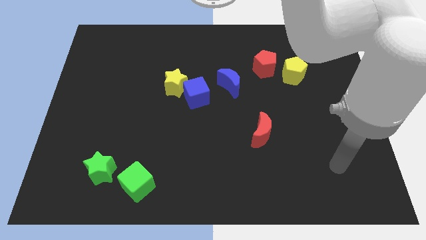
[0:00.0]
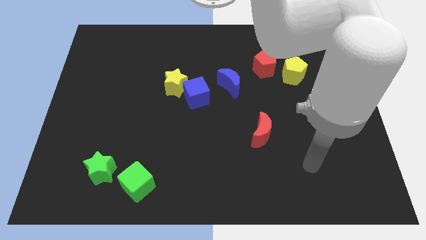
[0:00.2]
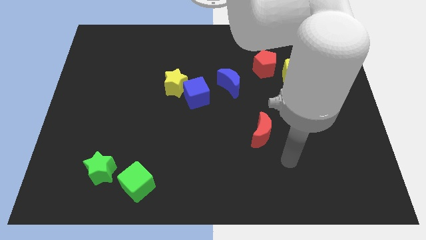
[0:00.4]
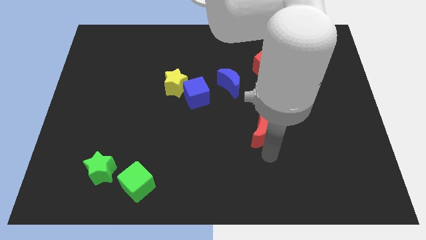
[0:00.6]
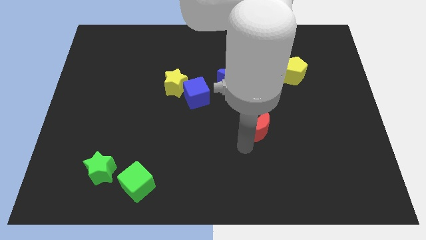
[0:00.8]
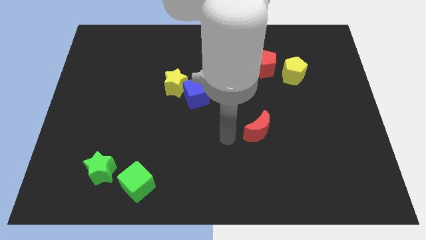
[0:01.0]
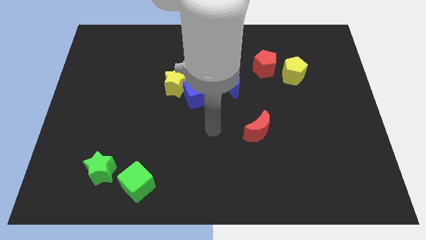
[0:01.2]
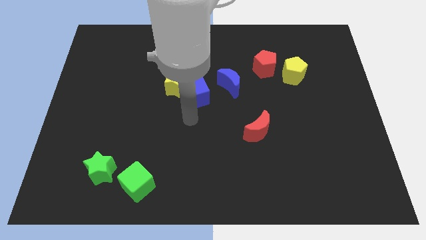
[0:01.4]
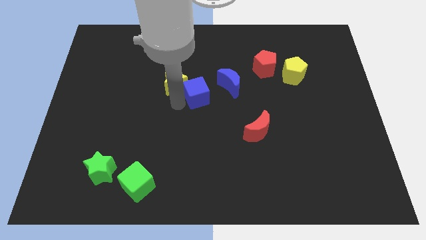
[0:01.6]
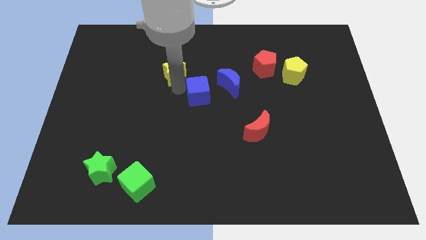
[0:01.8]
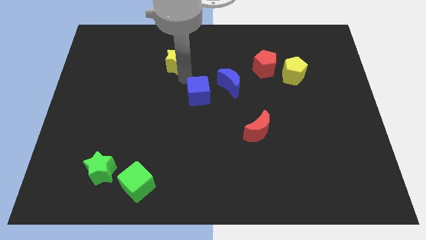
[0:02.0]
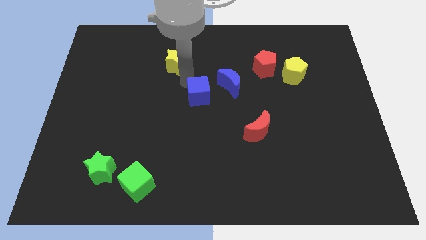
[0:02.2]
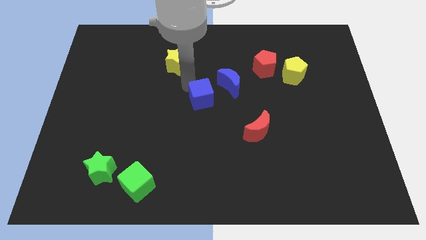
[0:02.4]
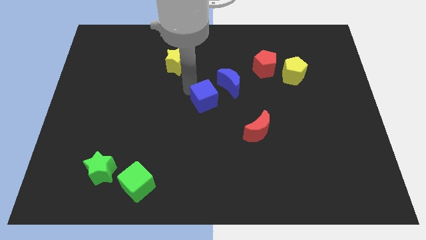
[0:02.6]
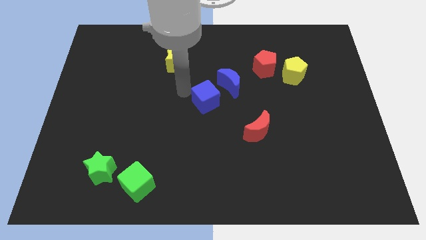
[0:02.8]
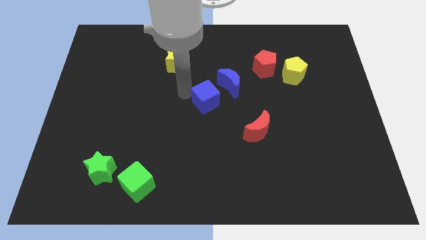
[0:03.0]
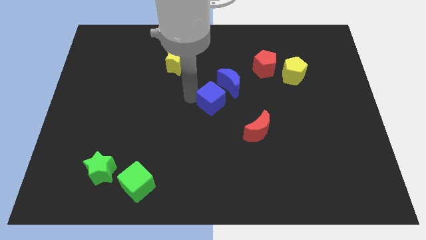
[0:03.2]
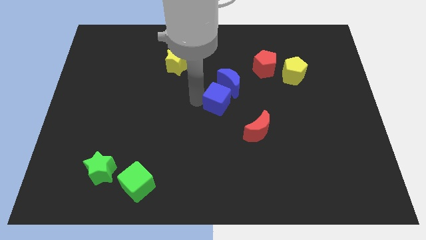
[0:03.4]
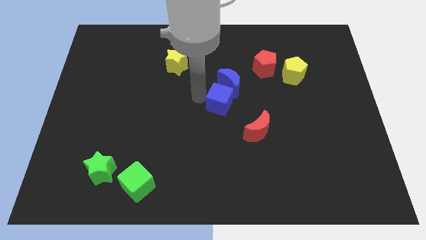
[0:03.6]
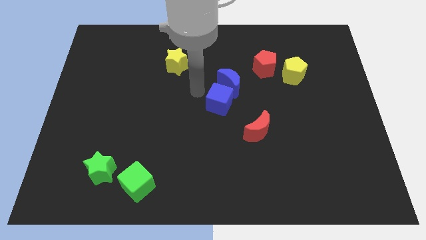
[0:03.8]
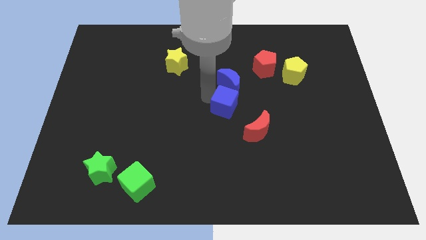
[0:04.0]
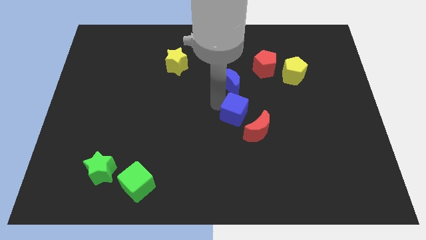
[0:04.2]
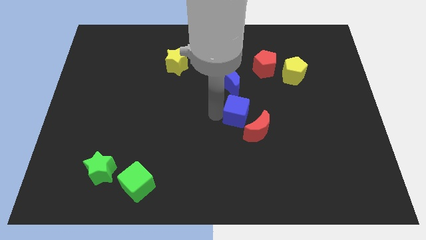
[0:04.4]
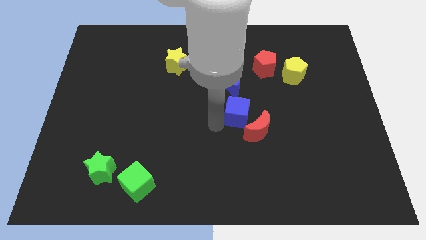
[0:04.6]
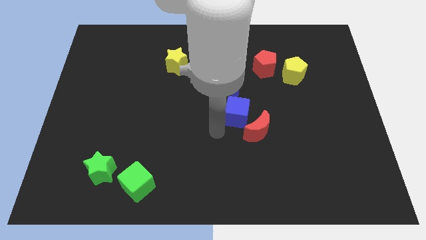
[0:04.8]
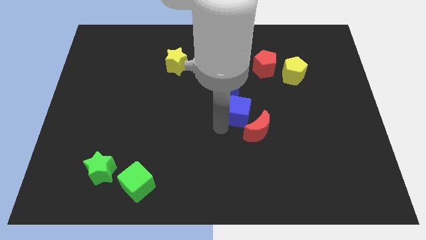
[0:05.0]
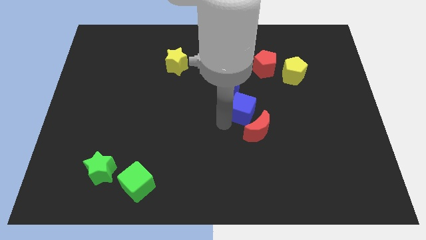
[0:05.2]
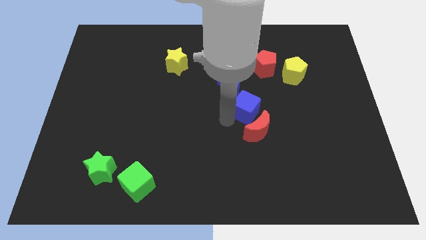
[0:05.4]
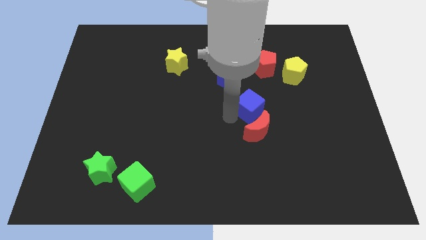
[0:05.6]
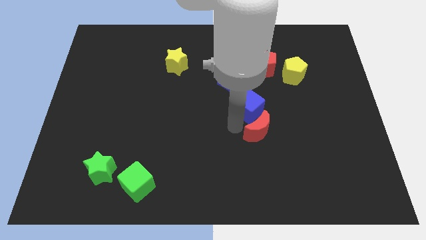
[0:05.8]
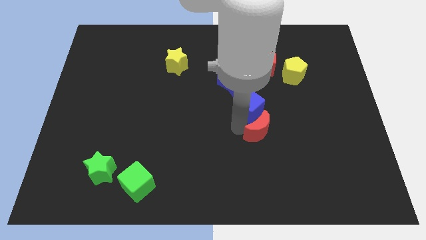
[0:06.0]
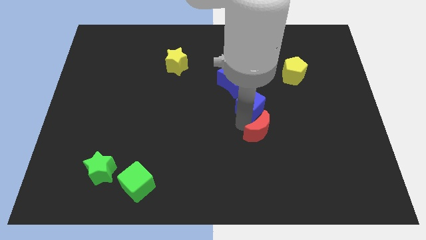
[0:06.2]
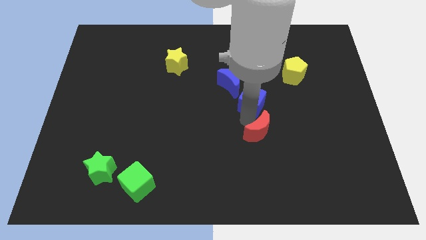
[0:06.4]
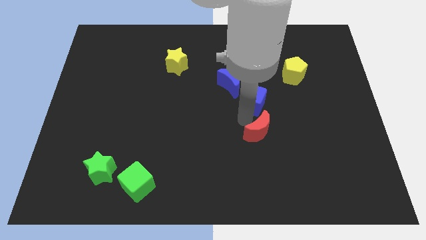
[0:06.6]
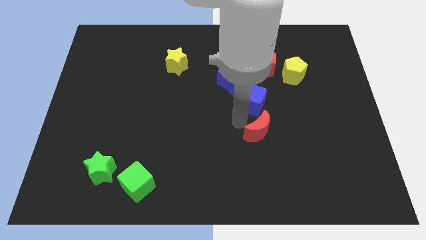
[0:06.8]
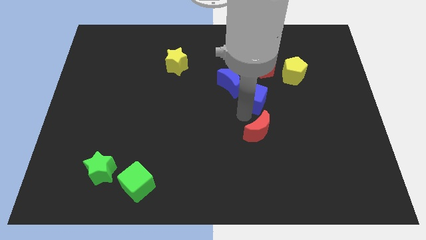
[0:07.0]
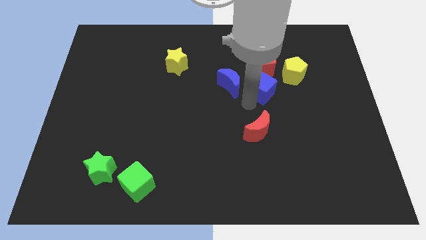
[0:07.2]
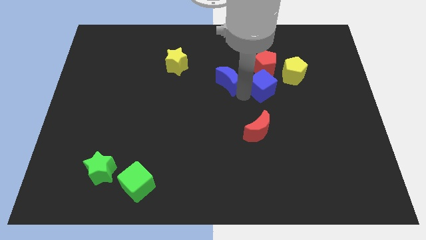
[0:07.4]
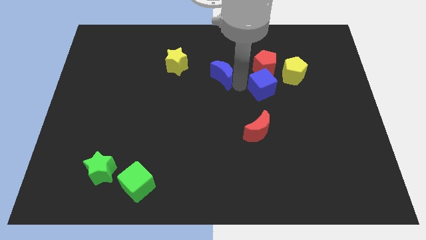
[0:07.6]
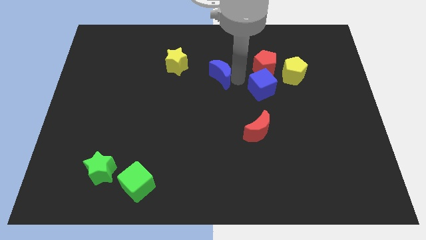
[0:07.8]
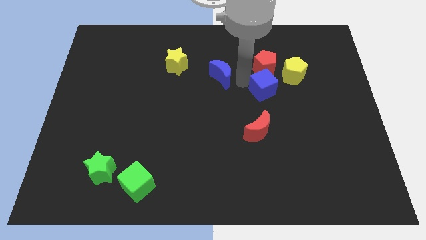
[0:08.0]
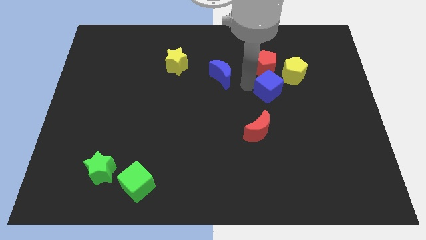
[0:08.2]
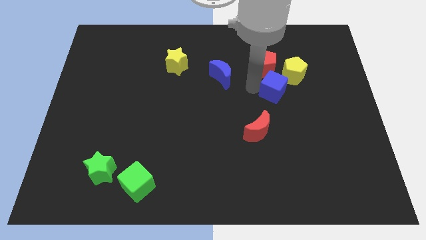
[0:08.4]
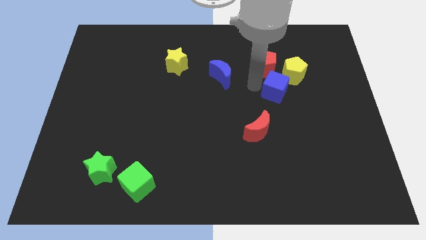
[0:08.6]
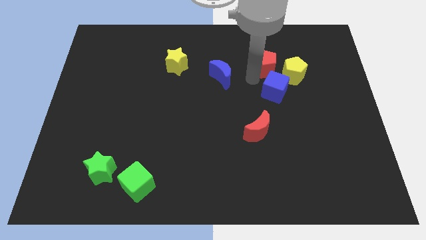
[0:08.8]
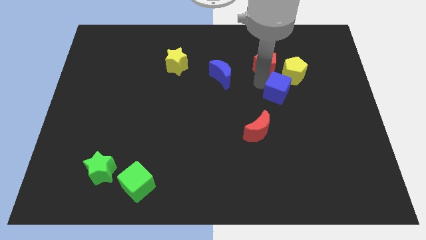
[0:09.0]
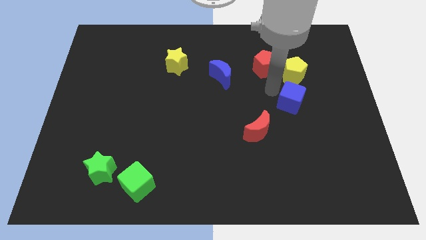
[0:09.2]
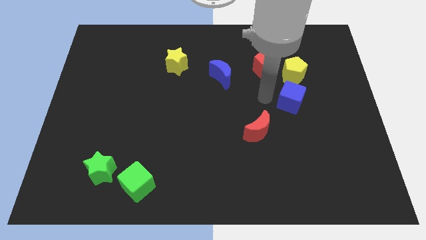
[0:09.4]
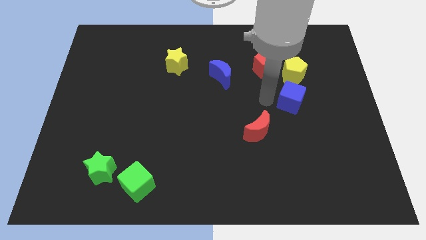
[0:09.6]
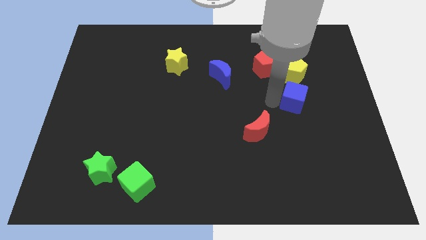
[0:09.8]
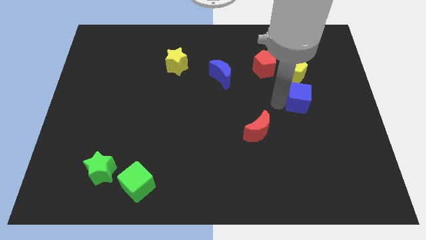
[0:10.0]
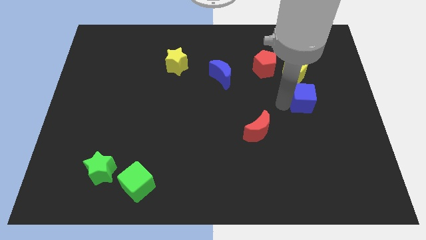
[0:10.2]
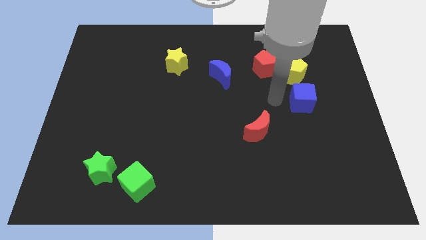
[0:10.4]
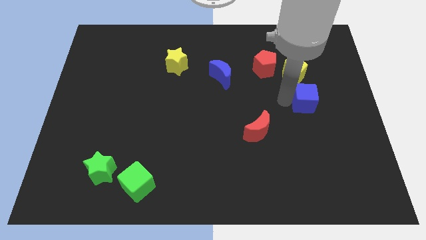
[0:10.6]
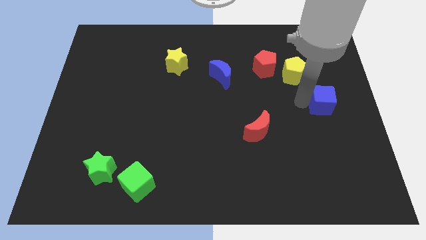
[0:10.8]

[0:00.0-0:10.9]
put the blue cube to the right side
